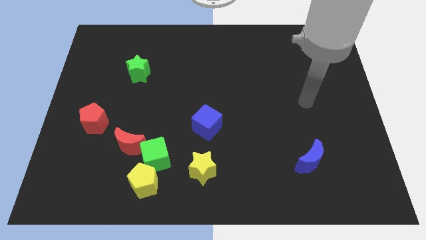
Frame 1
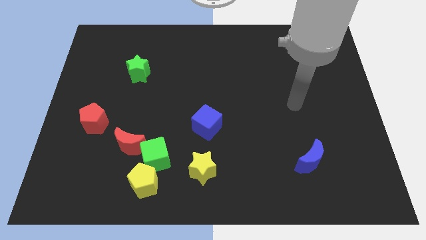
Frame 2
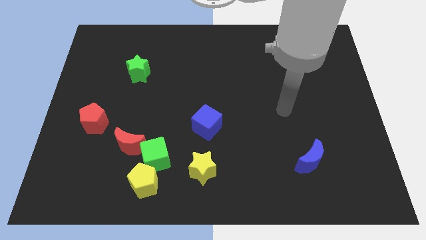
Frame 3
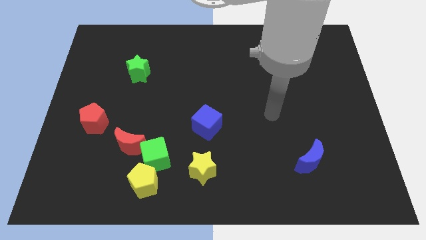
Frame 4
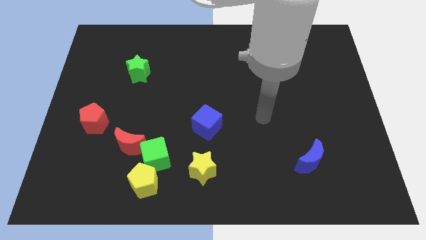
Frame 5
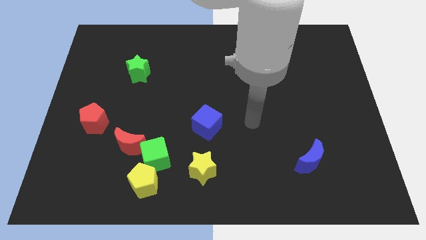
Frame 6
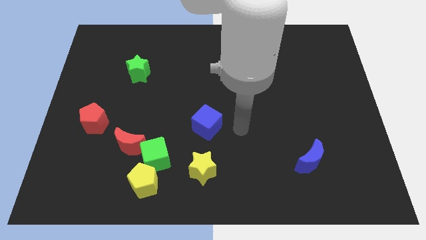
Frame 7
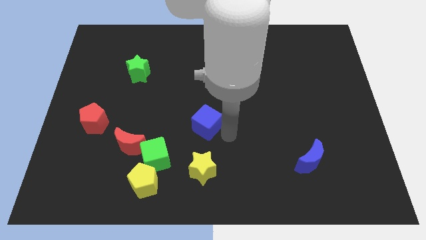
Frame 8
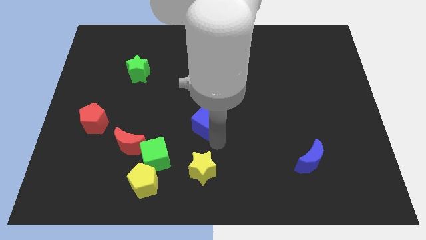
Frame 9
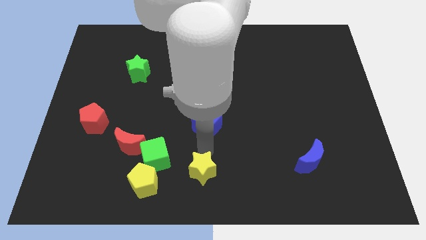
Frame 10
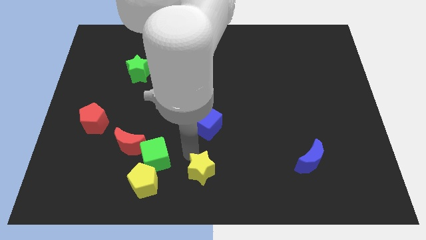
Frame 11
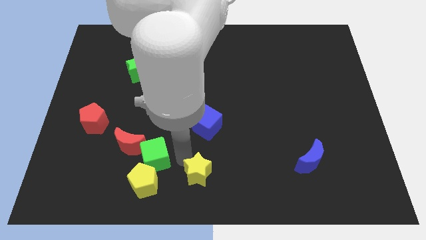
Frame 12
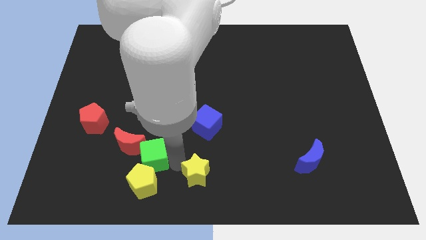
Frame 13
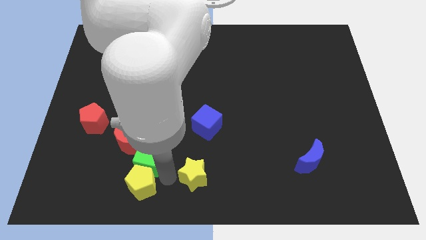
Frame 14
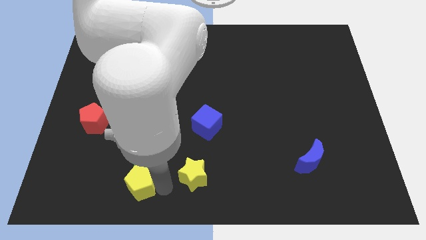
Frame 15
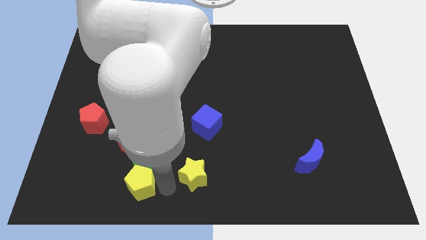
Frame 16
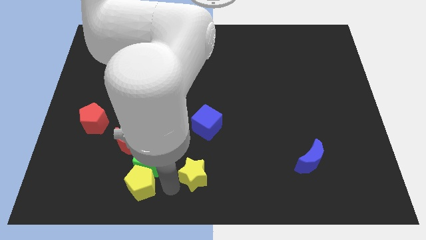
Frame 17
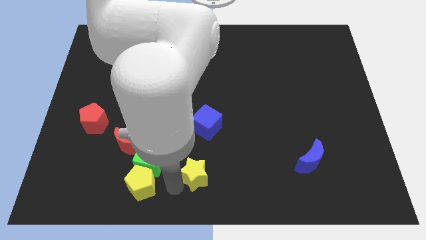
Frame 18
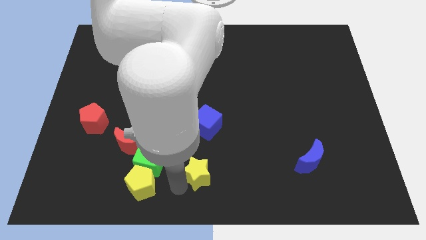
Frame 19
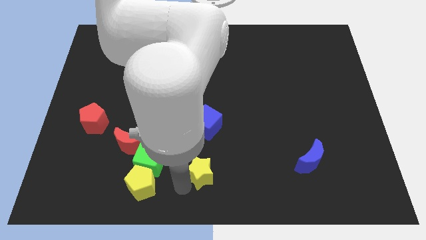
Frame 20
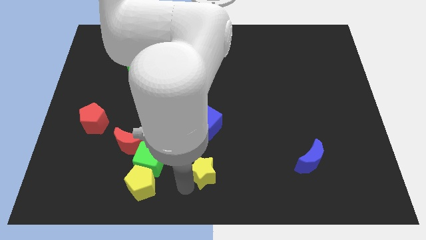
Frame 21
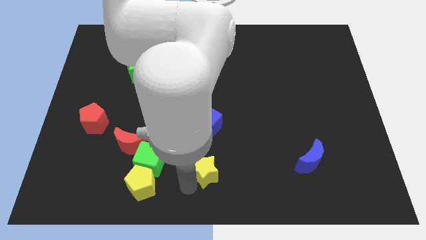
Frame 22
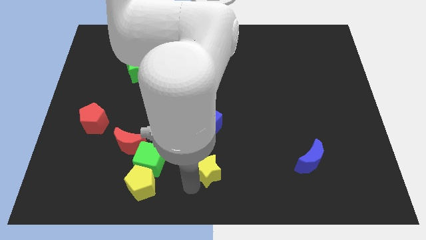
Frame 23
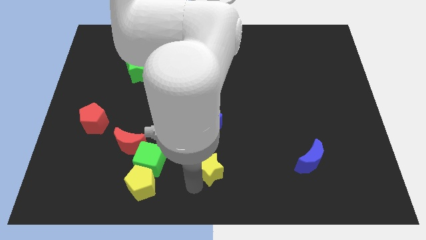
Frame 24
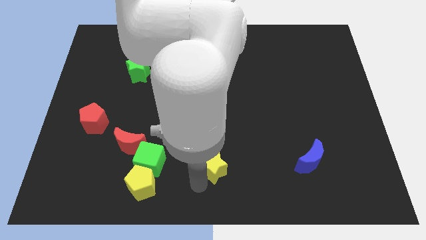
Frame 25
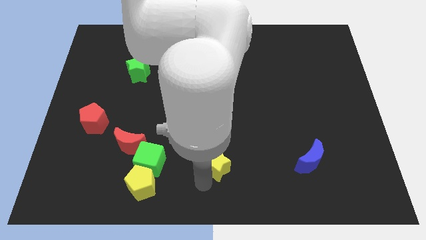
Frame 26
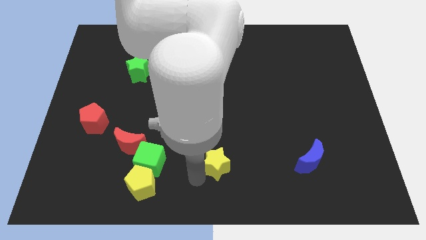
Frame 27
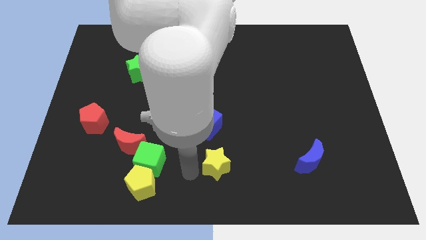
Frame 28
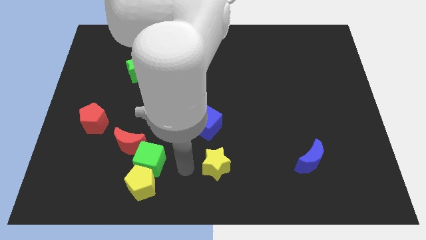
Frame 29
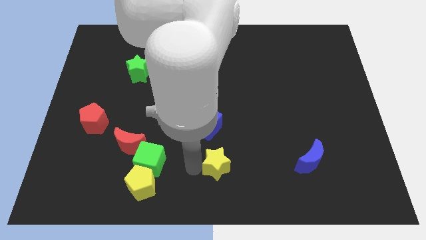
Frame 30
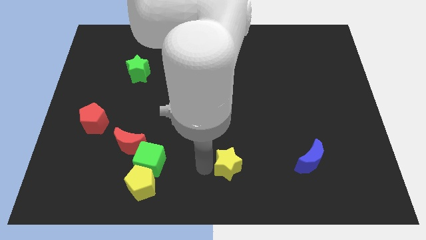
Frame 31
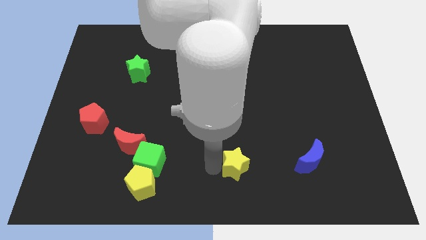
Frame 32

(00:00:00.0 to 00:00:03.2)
slightly slide the yellow star to the right

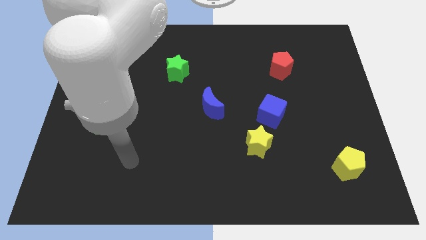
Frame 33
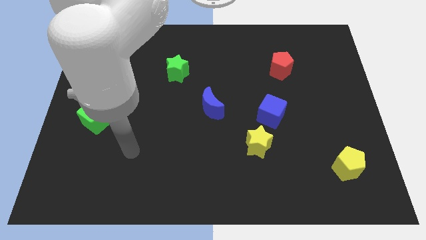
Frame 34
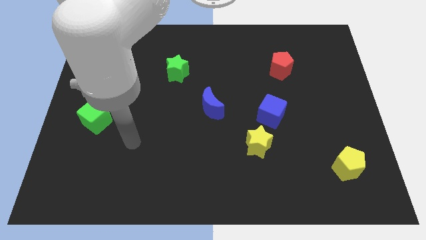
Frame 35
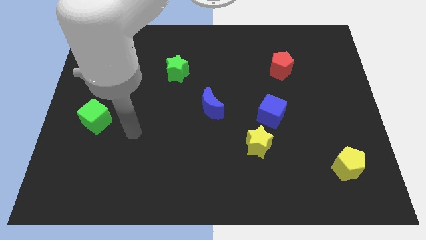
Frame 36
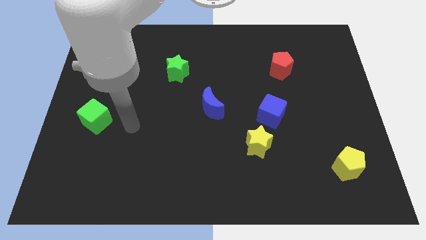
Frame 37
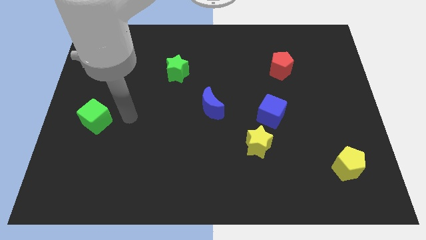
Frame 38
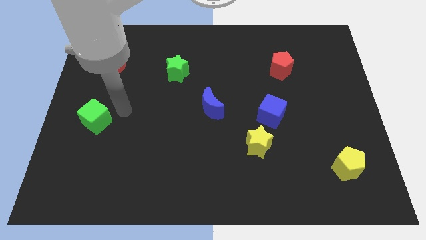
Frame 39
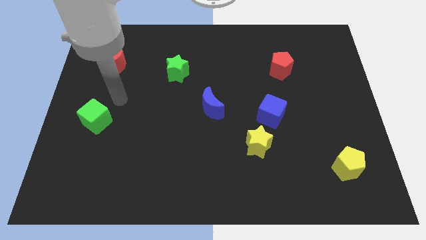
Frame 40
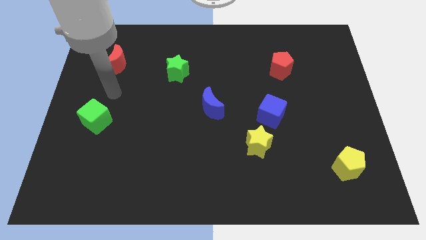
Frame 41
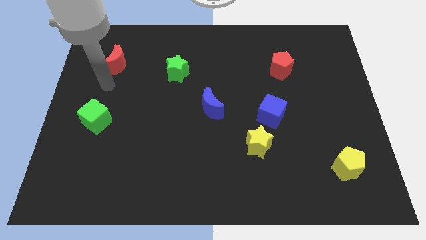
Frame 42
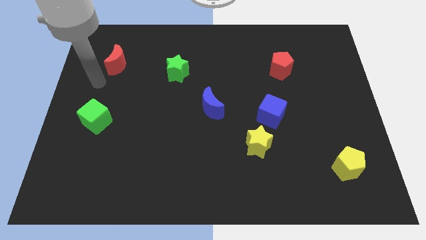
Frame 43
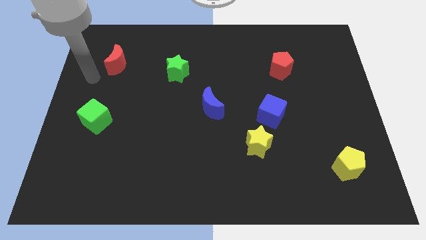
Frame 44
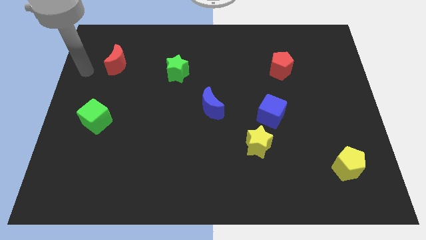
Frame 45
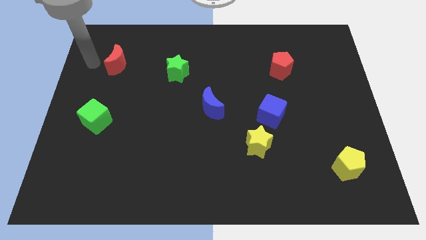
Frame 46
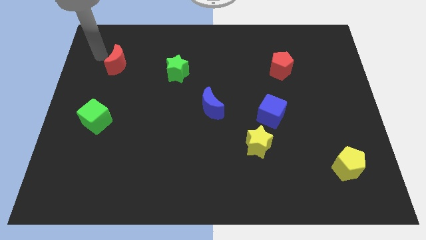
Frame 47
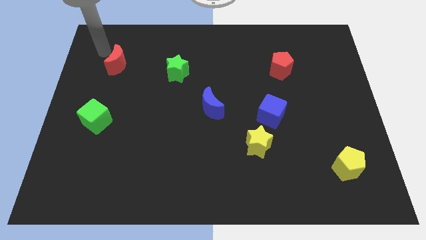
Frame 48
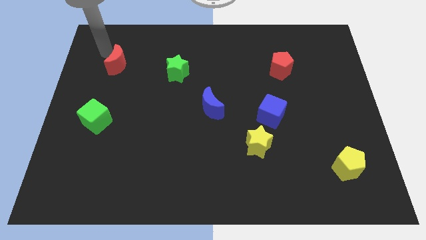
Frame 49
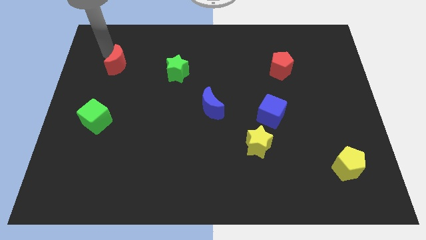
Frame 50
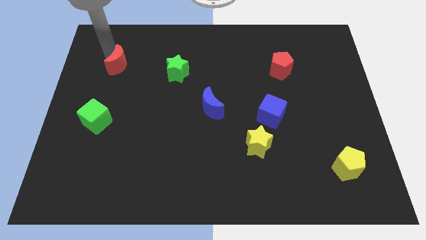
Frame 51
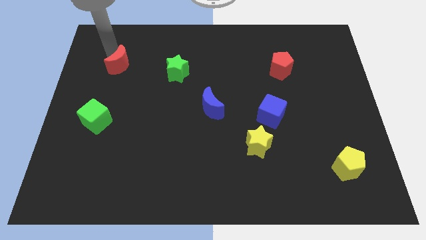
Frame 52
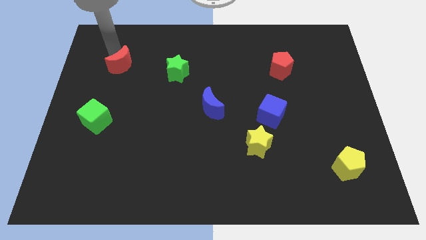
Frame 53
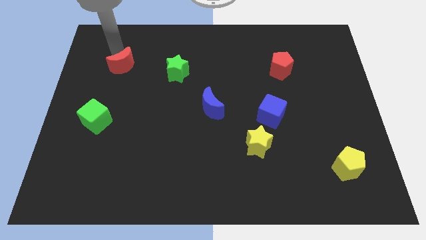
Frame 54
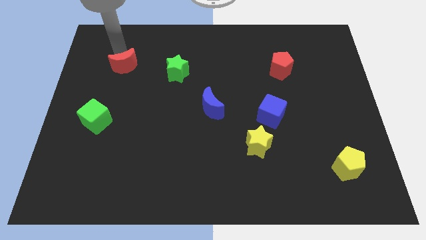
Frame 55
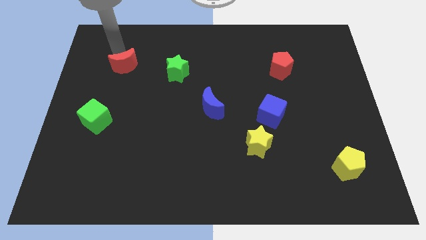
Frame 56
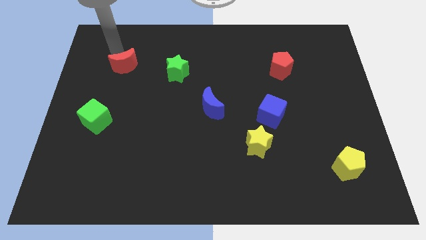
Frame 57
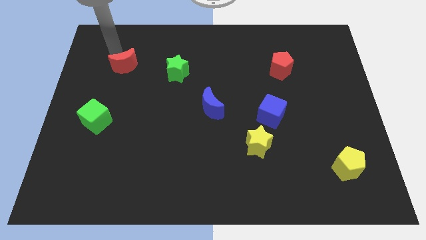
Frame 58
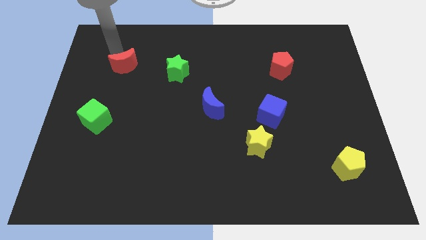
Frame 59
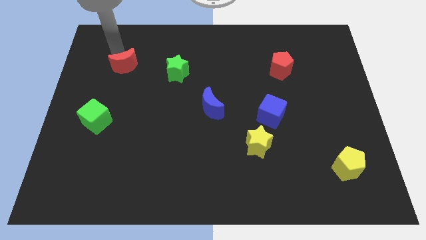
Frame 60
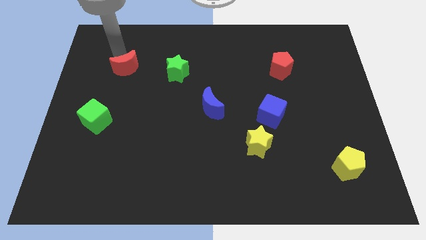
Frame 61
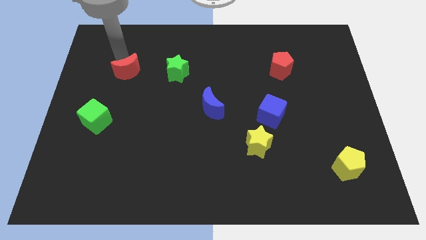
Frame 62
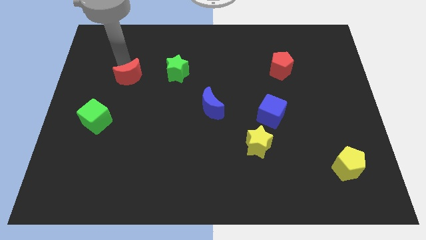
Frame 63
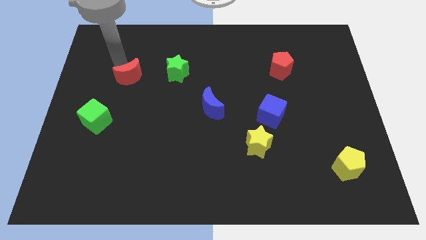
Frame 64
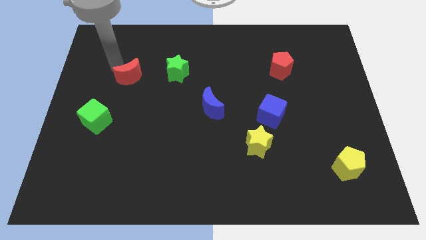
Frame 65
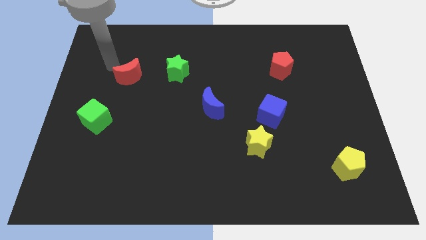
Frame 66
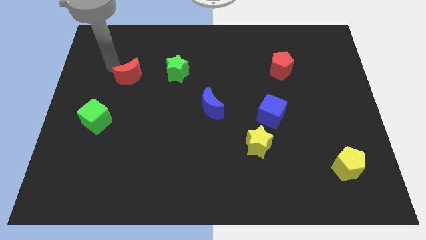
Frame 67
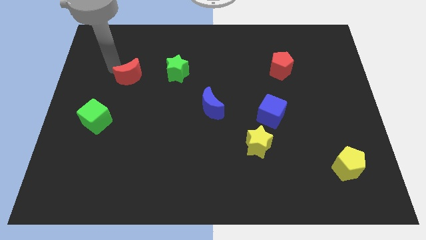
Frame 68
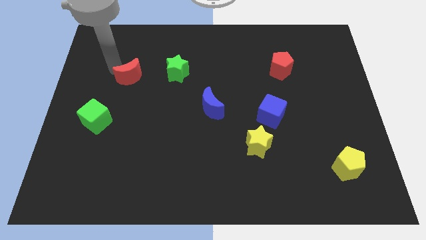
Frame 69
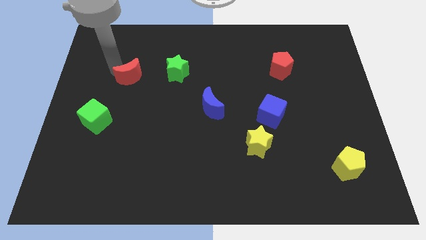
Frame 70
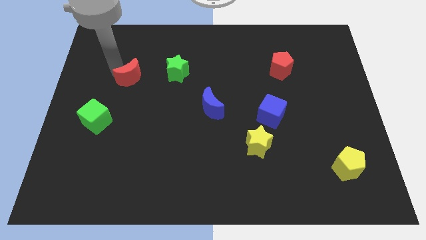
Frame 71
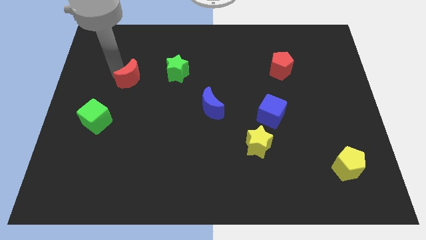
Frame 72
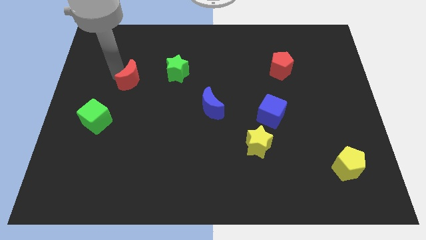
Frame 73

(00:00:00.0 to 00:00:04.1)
push the red moon downwards and right a little bit

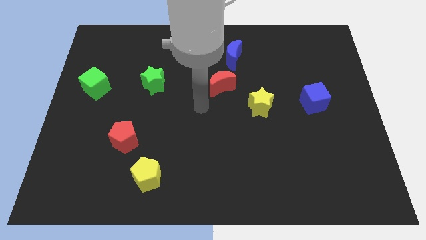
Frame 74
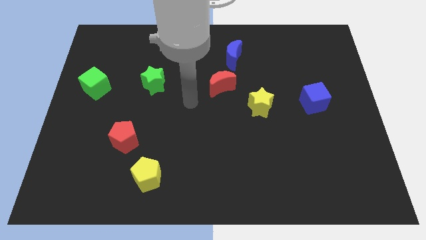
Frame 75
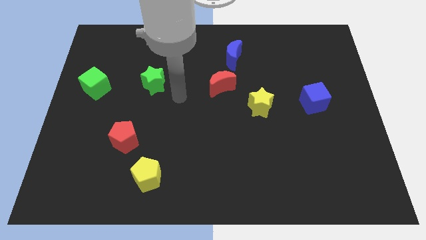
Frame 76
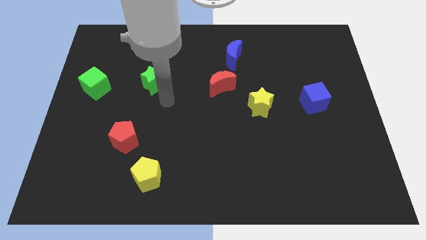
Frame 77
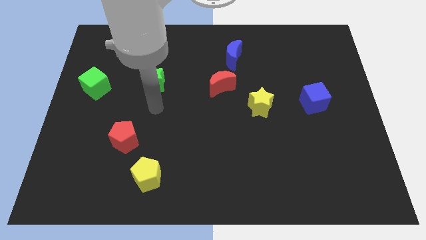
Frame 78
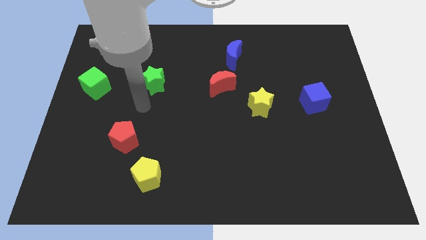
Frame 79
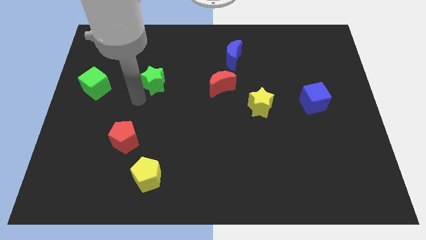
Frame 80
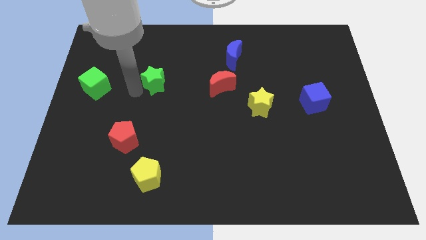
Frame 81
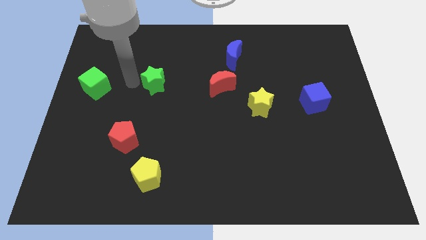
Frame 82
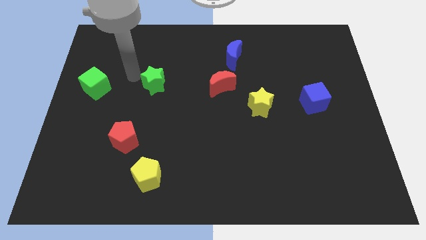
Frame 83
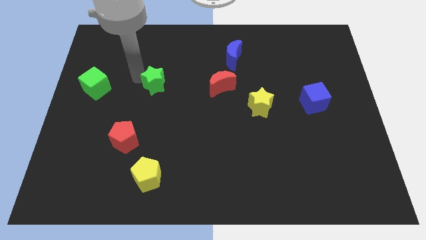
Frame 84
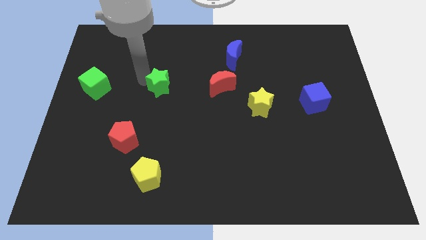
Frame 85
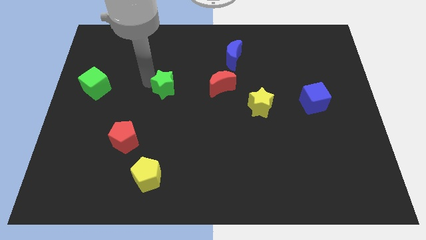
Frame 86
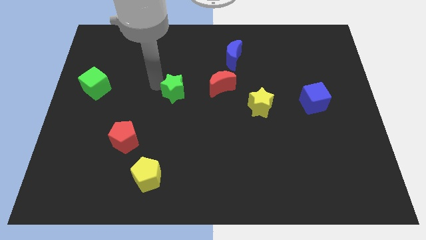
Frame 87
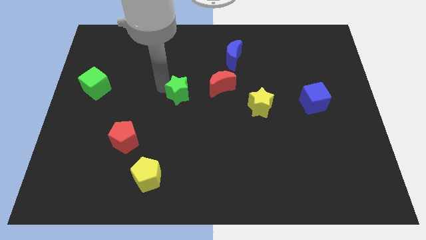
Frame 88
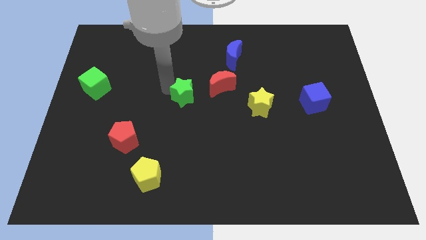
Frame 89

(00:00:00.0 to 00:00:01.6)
move the green star a bit diagonally downwards and to the right
